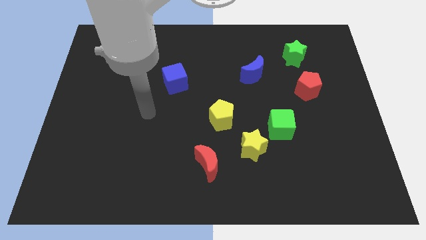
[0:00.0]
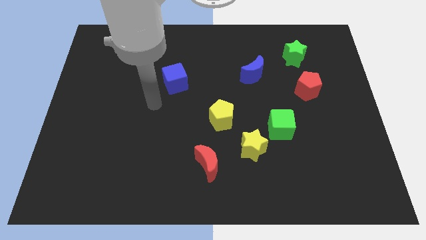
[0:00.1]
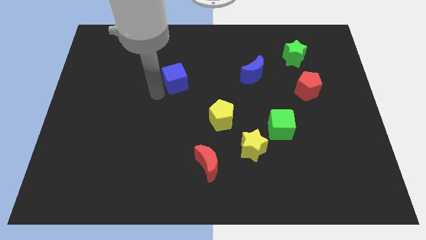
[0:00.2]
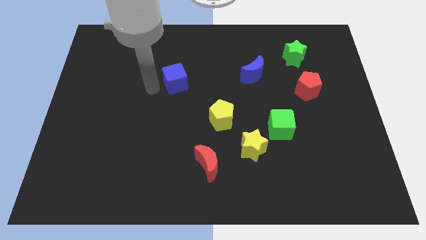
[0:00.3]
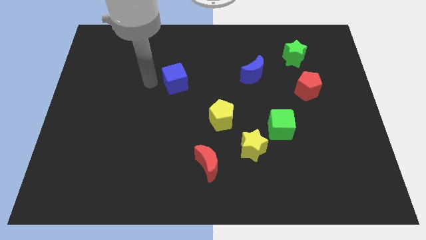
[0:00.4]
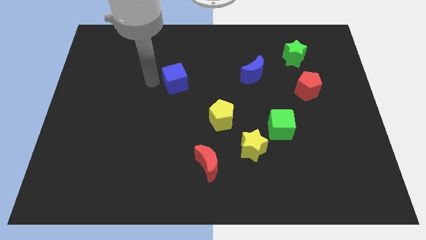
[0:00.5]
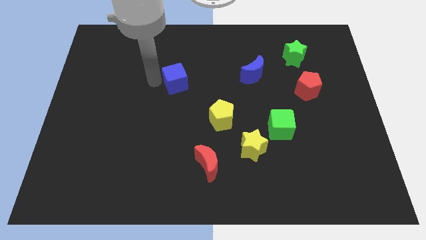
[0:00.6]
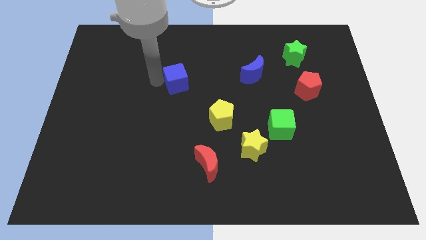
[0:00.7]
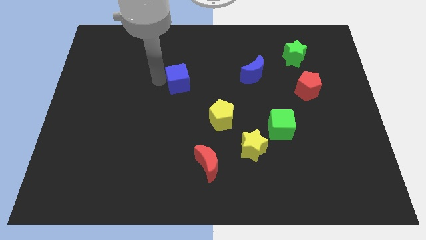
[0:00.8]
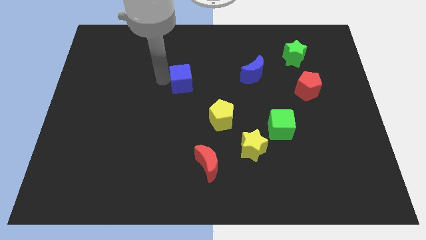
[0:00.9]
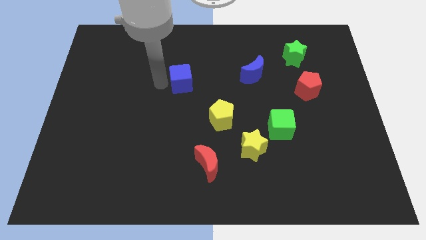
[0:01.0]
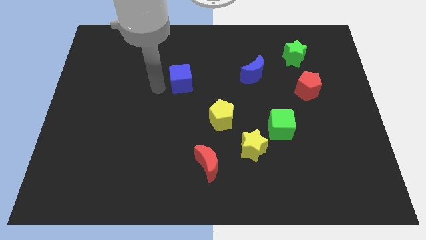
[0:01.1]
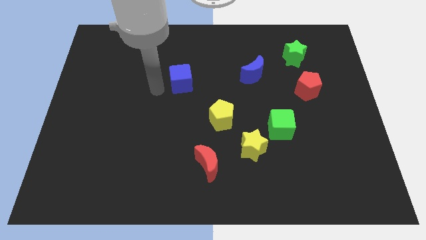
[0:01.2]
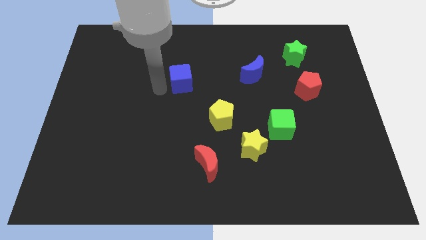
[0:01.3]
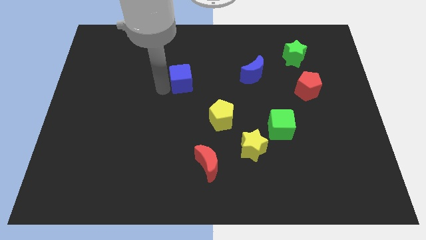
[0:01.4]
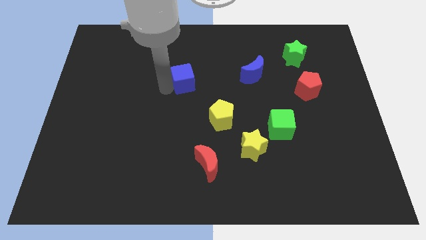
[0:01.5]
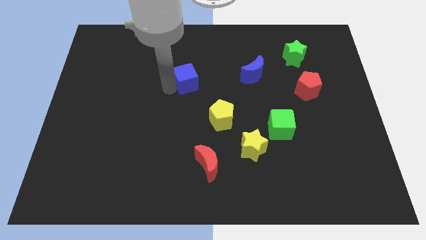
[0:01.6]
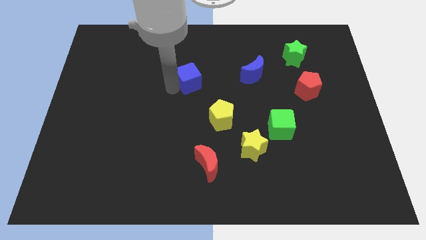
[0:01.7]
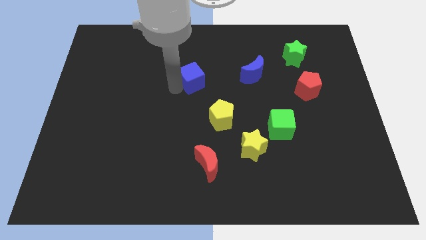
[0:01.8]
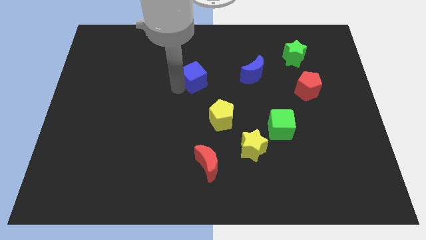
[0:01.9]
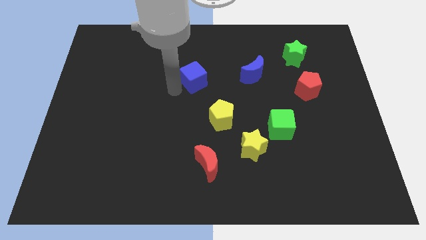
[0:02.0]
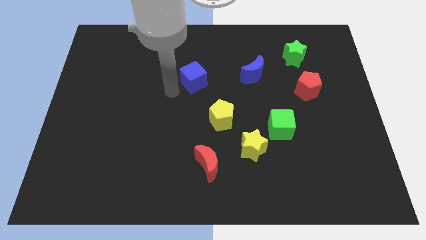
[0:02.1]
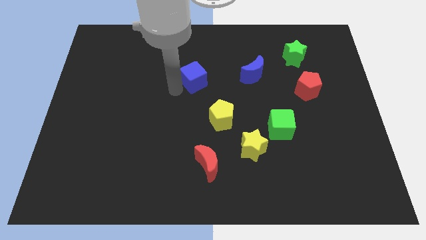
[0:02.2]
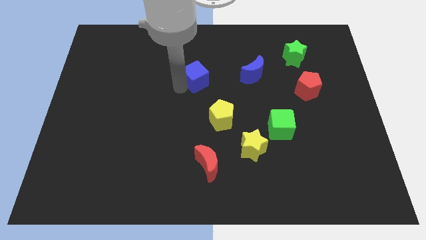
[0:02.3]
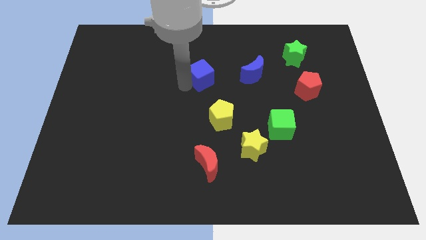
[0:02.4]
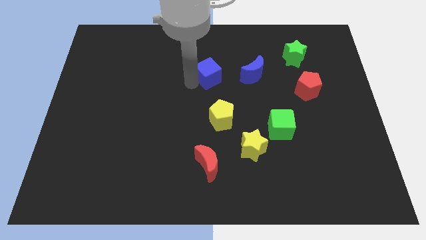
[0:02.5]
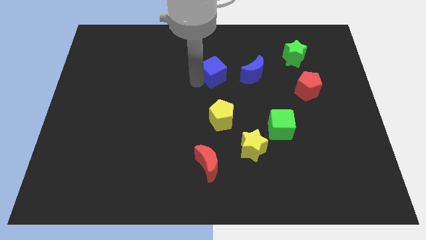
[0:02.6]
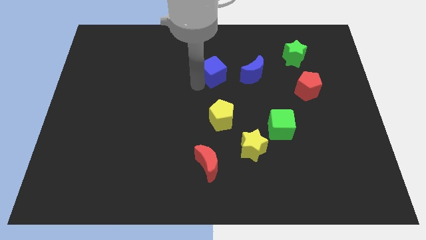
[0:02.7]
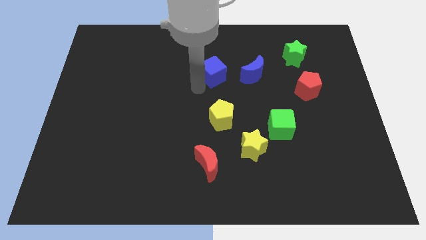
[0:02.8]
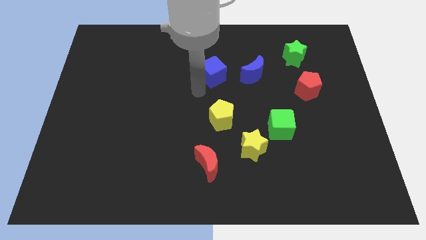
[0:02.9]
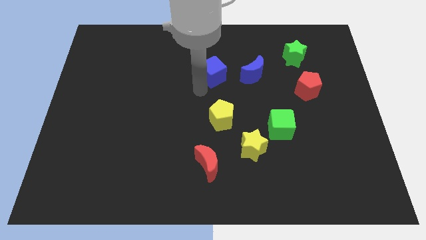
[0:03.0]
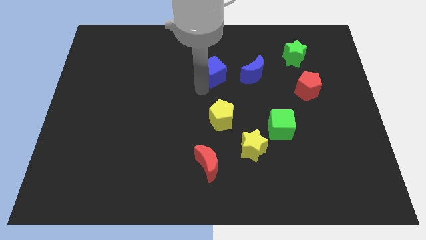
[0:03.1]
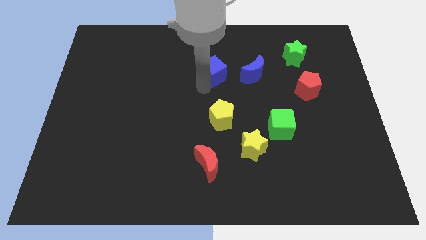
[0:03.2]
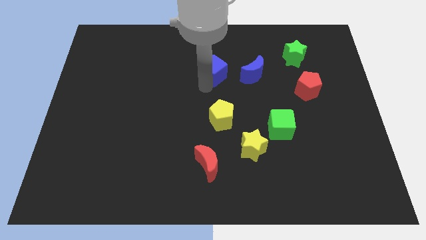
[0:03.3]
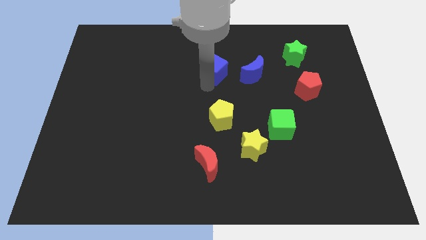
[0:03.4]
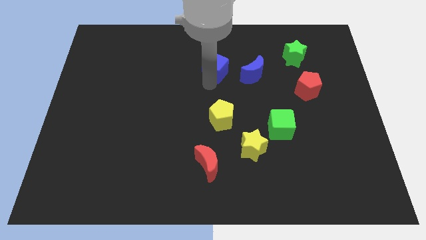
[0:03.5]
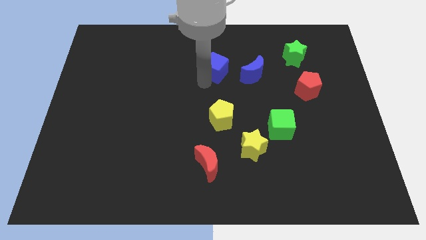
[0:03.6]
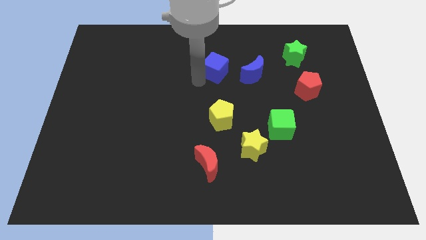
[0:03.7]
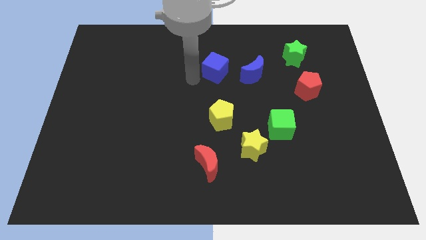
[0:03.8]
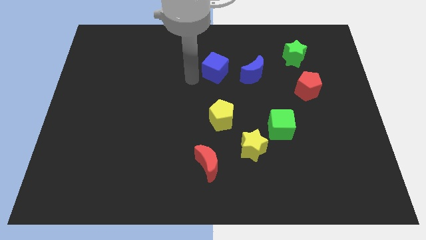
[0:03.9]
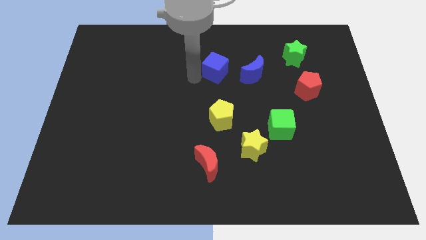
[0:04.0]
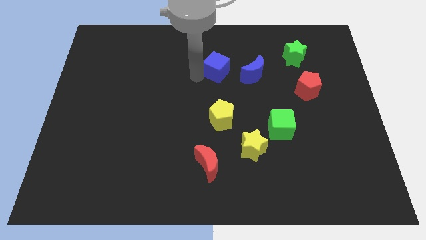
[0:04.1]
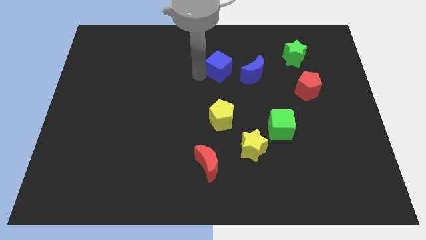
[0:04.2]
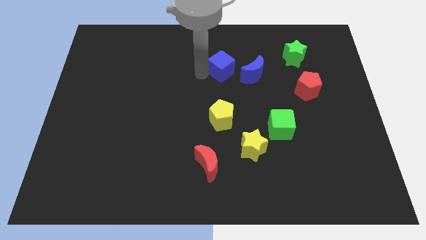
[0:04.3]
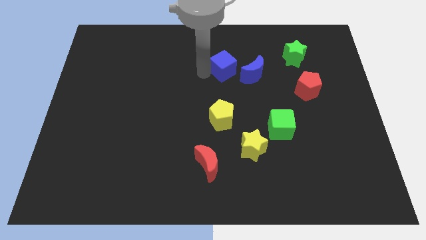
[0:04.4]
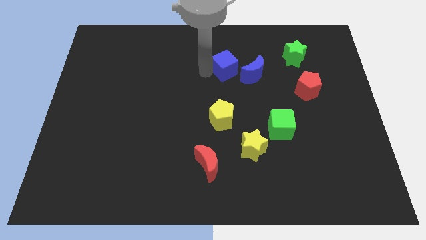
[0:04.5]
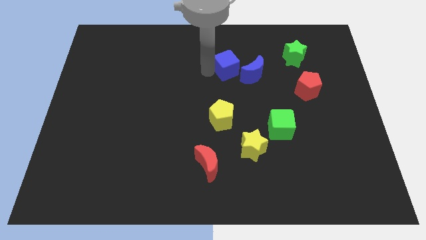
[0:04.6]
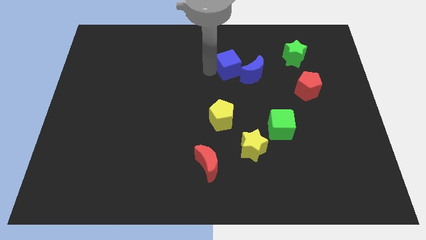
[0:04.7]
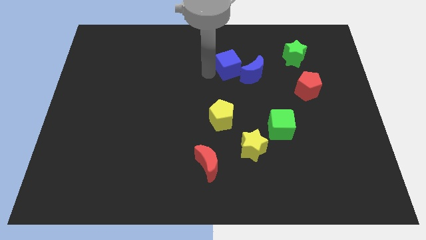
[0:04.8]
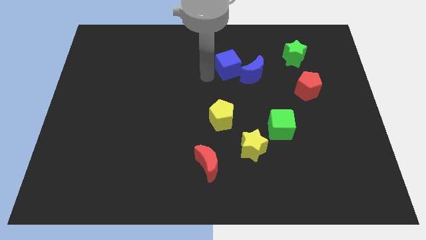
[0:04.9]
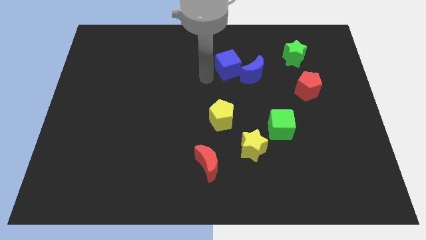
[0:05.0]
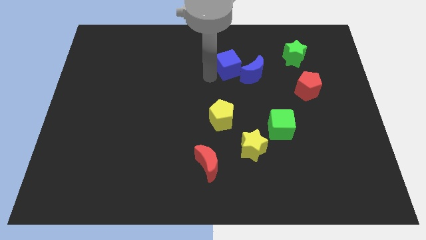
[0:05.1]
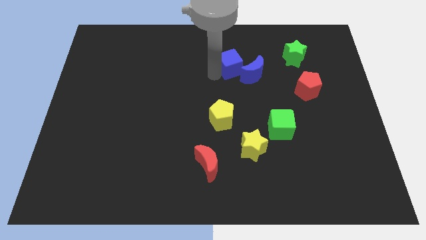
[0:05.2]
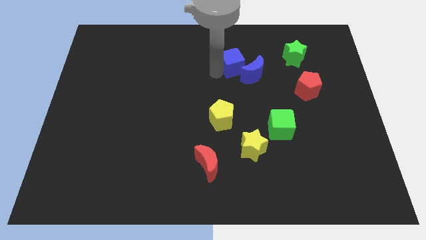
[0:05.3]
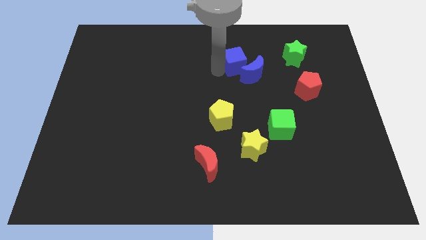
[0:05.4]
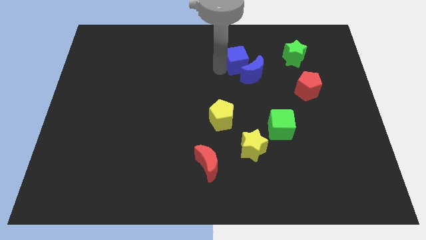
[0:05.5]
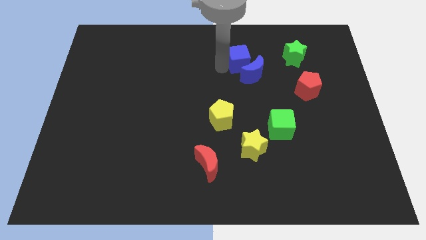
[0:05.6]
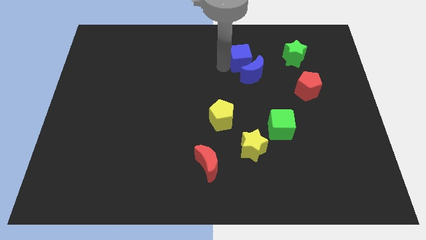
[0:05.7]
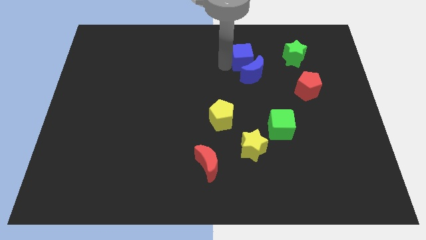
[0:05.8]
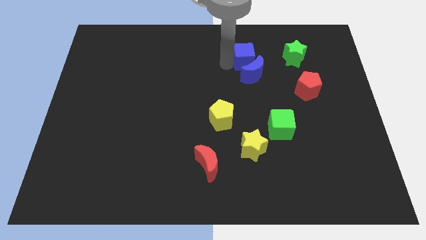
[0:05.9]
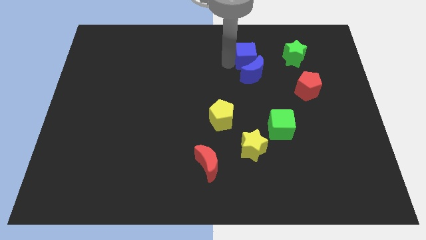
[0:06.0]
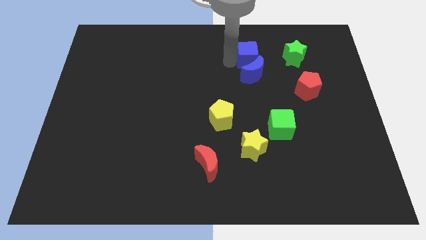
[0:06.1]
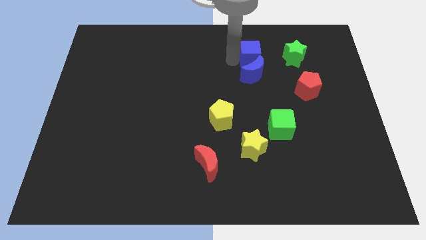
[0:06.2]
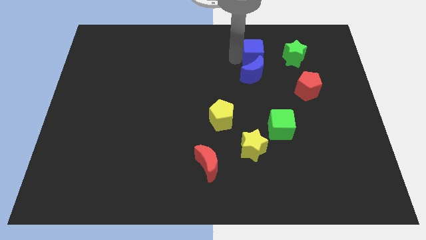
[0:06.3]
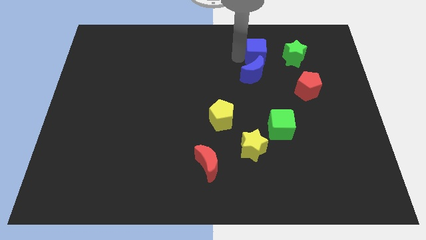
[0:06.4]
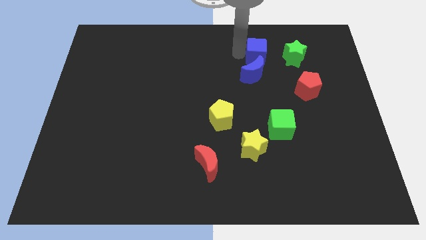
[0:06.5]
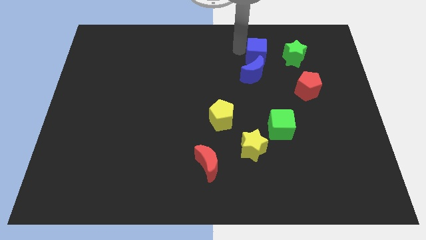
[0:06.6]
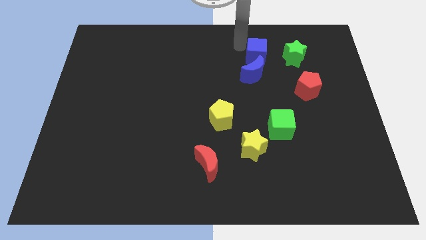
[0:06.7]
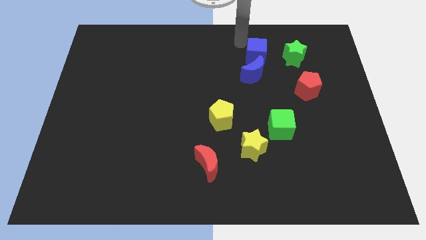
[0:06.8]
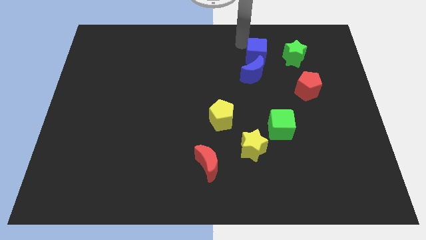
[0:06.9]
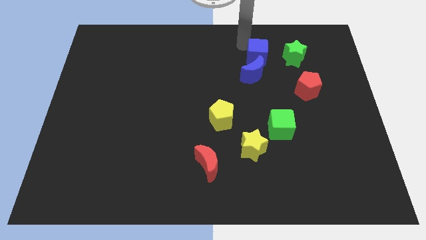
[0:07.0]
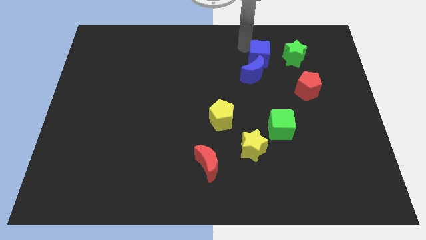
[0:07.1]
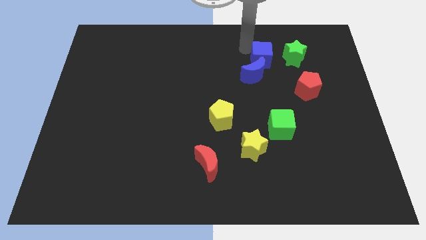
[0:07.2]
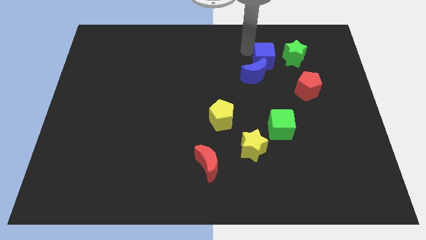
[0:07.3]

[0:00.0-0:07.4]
put the blue cube to the bottom left of the green star

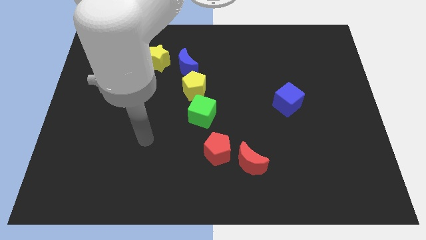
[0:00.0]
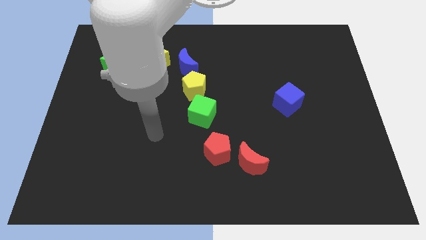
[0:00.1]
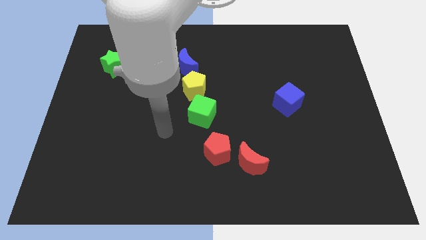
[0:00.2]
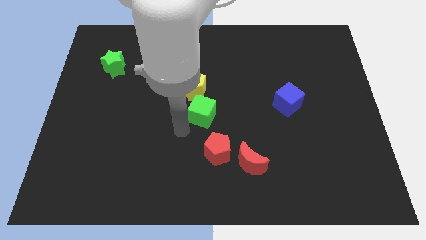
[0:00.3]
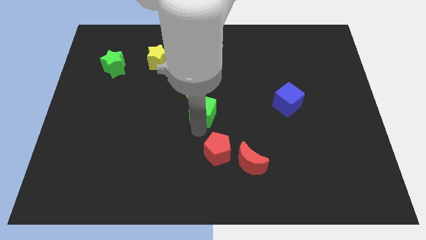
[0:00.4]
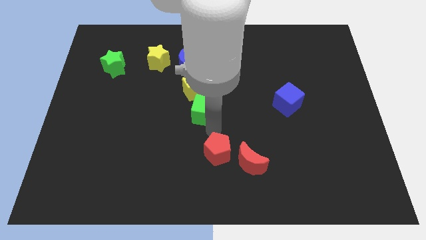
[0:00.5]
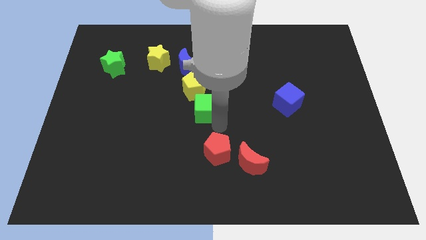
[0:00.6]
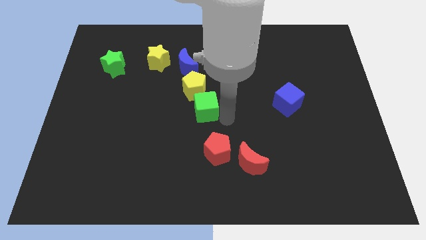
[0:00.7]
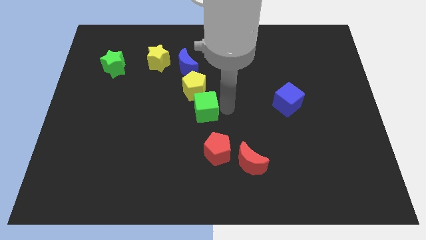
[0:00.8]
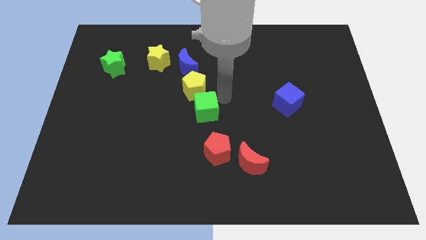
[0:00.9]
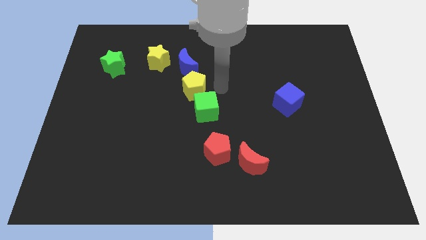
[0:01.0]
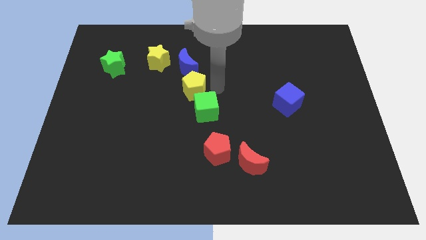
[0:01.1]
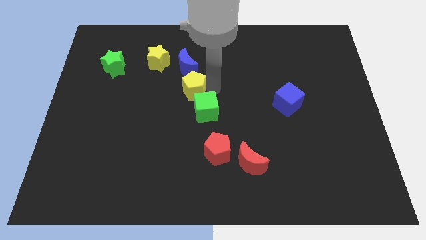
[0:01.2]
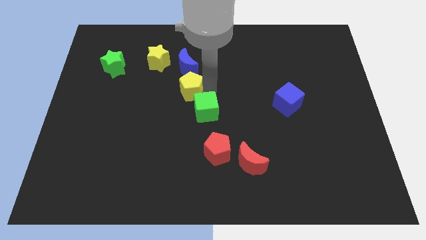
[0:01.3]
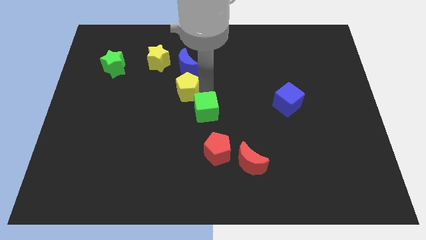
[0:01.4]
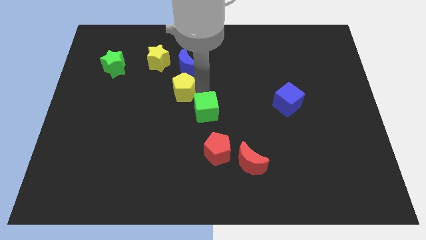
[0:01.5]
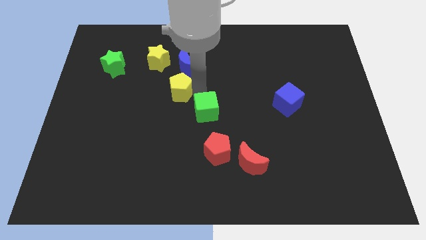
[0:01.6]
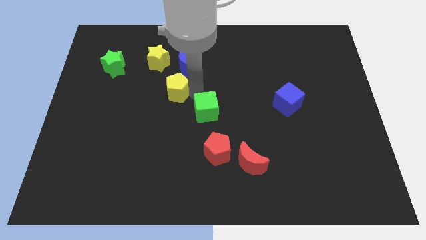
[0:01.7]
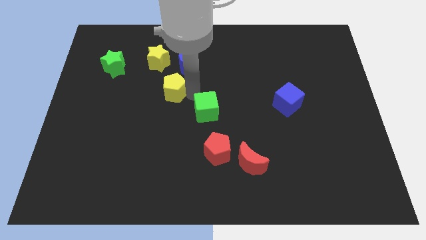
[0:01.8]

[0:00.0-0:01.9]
slide the yellow pentagon to the bottom side of the yellow star
